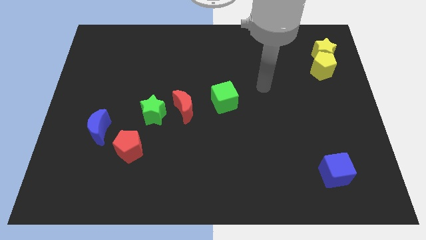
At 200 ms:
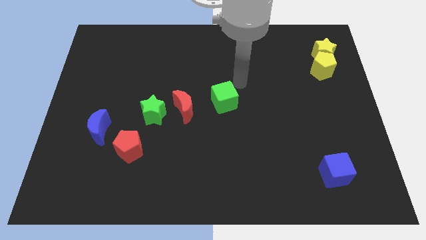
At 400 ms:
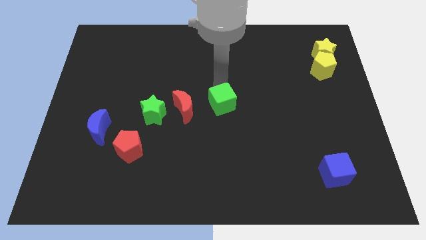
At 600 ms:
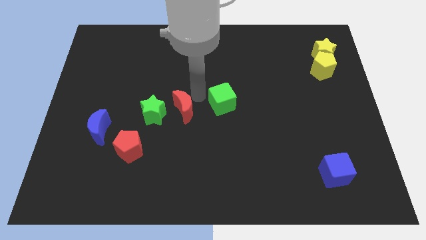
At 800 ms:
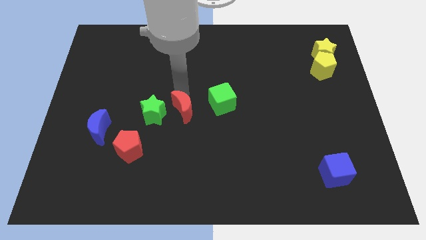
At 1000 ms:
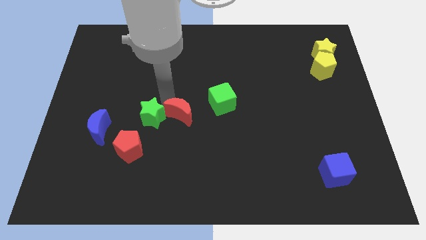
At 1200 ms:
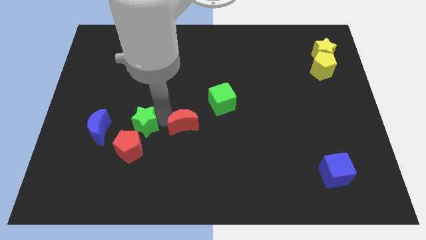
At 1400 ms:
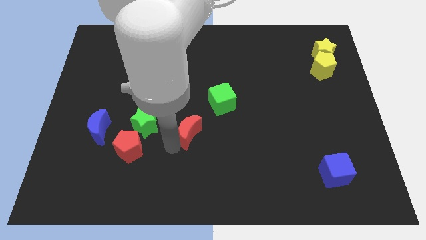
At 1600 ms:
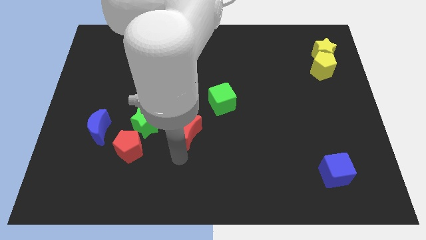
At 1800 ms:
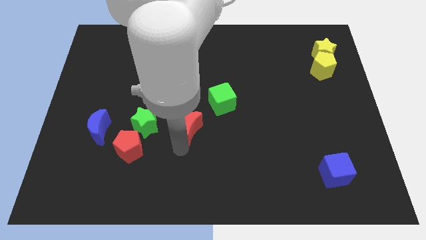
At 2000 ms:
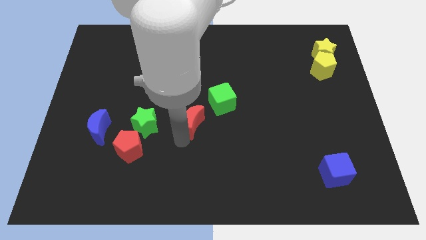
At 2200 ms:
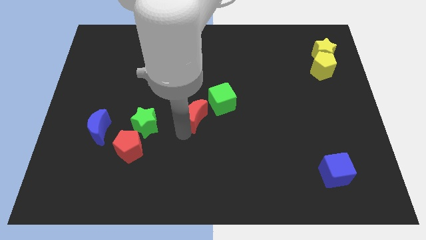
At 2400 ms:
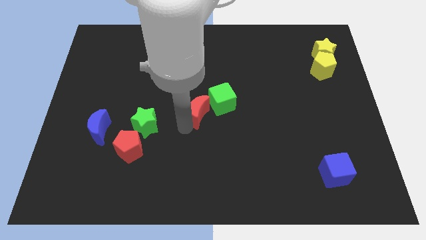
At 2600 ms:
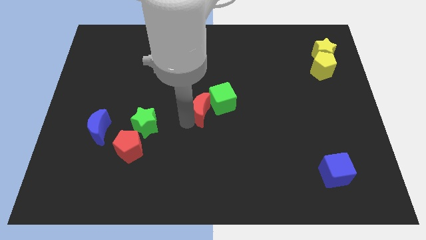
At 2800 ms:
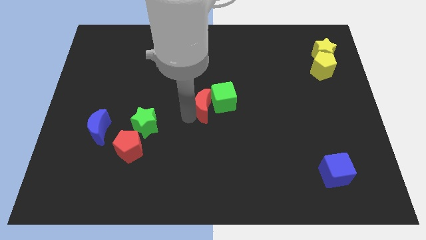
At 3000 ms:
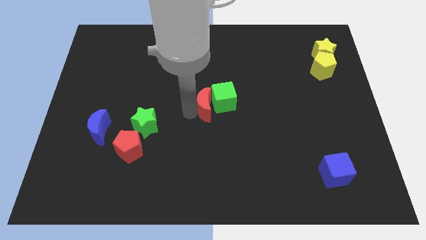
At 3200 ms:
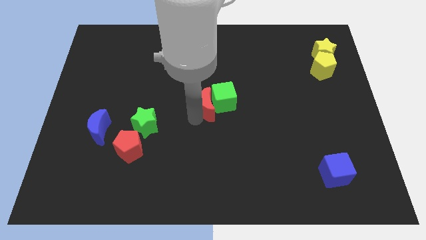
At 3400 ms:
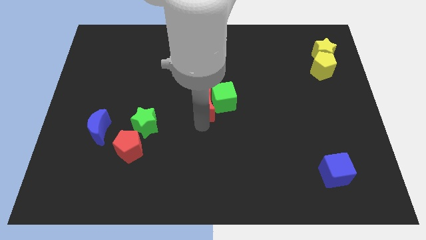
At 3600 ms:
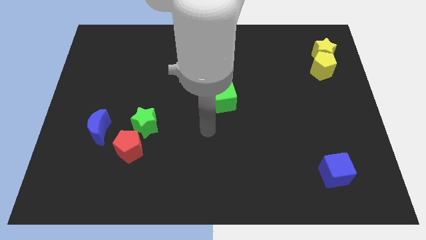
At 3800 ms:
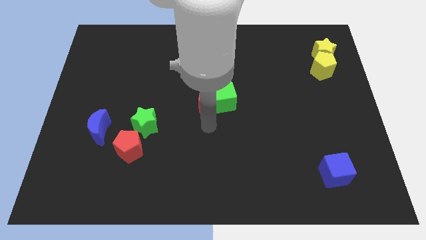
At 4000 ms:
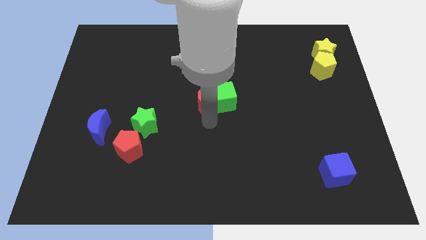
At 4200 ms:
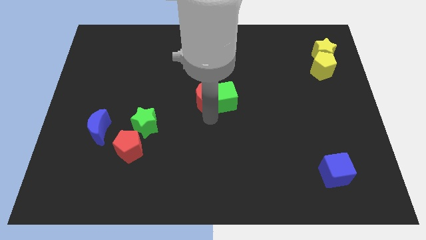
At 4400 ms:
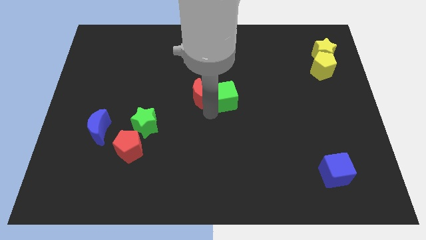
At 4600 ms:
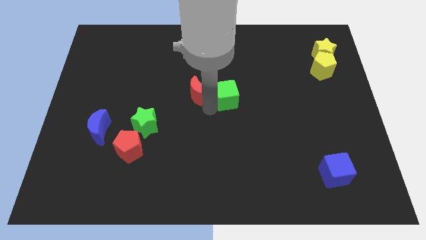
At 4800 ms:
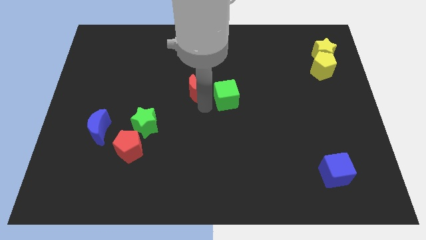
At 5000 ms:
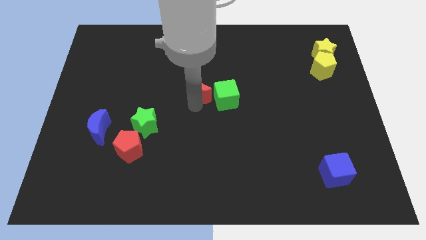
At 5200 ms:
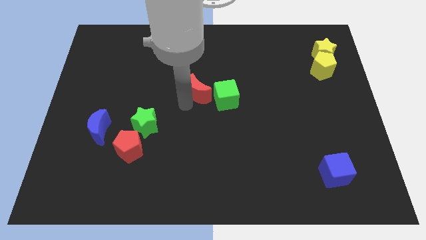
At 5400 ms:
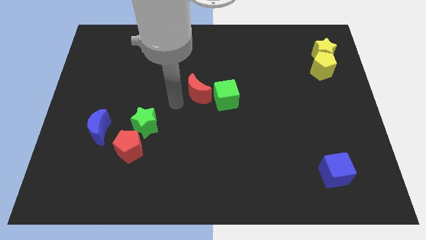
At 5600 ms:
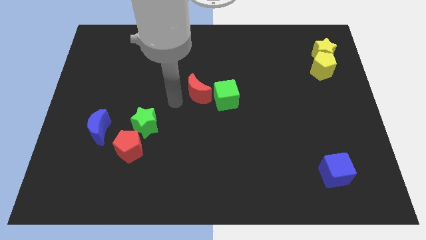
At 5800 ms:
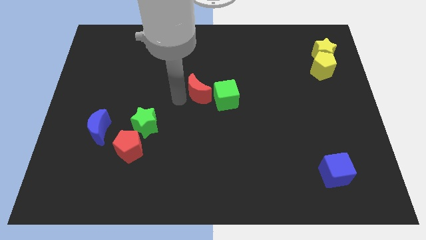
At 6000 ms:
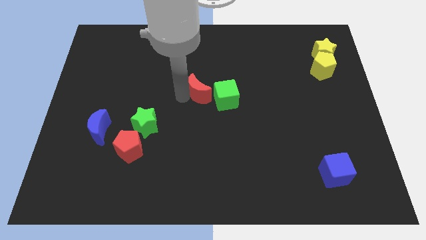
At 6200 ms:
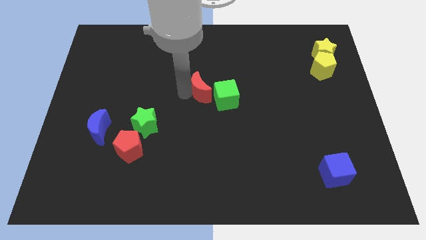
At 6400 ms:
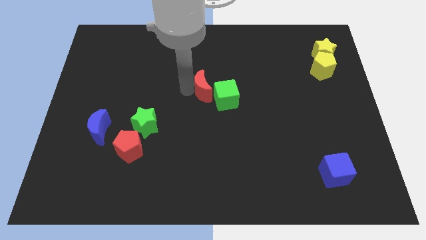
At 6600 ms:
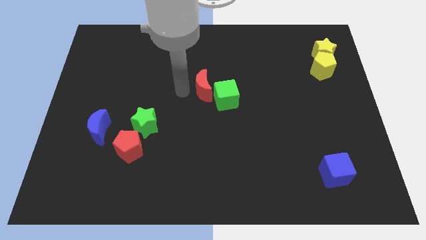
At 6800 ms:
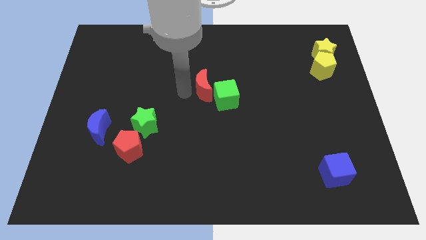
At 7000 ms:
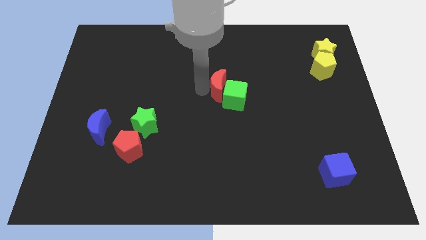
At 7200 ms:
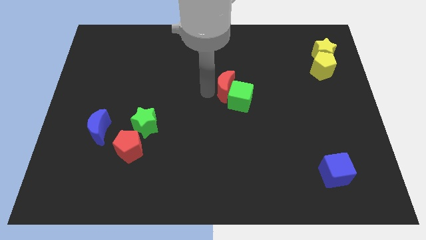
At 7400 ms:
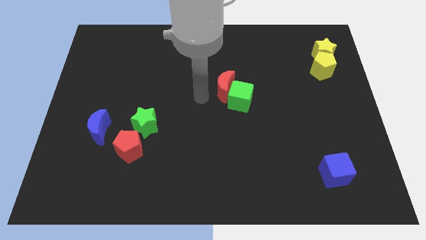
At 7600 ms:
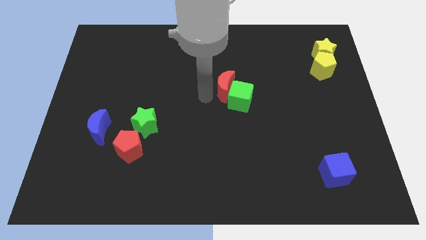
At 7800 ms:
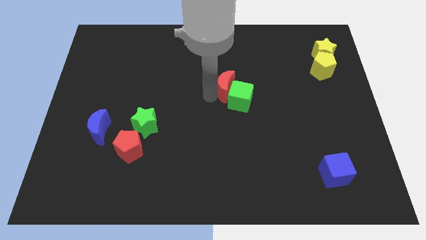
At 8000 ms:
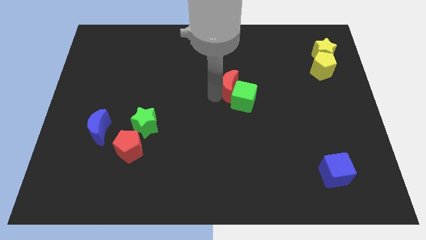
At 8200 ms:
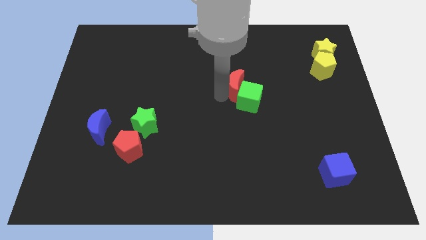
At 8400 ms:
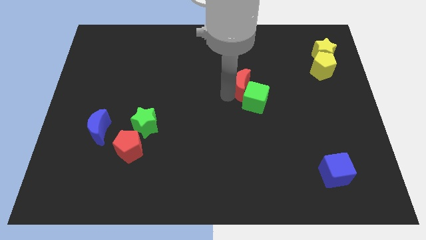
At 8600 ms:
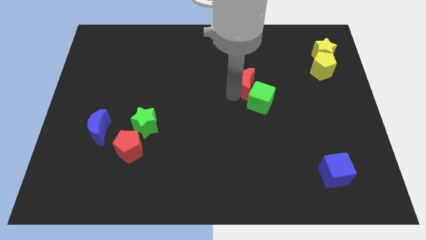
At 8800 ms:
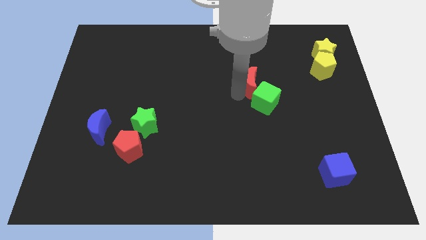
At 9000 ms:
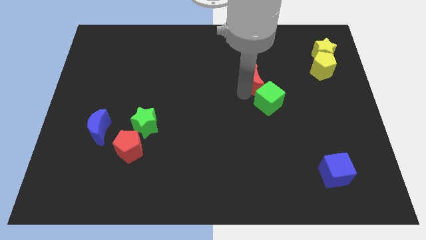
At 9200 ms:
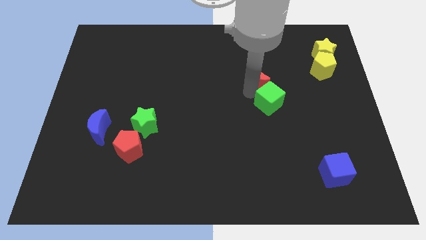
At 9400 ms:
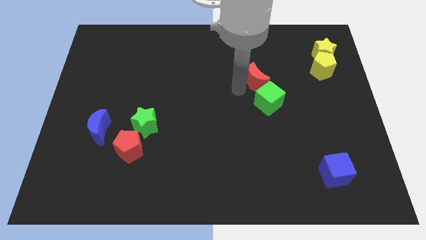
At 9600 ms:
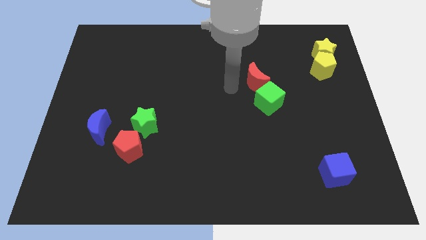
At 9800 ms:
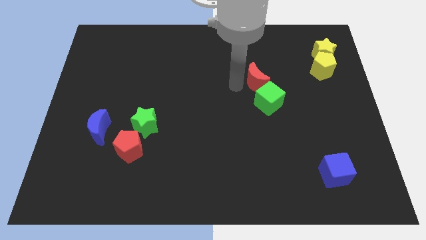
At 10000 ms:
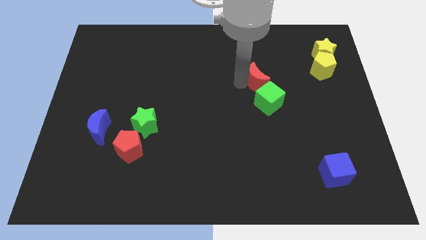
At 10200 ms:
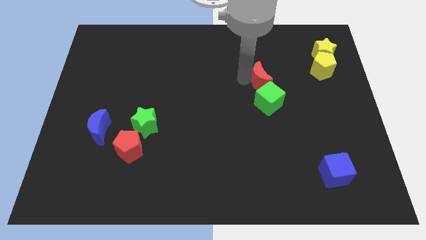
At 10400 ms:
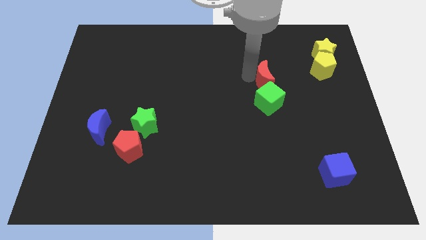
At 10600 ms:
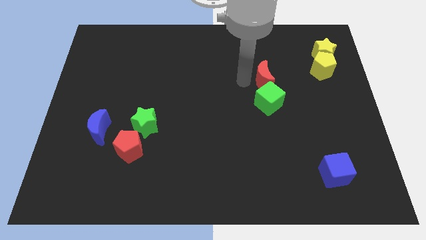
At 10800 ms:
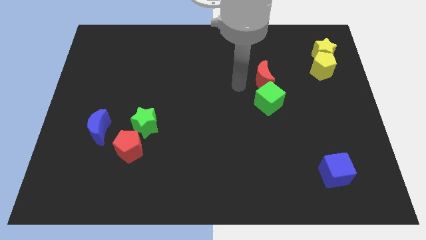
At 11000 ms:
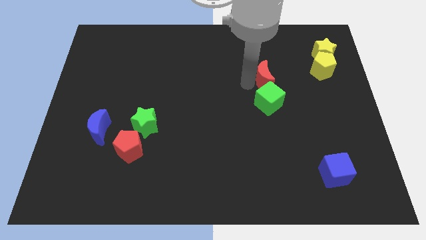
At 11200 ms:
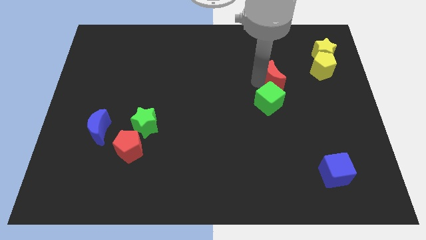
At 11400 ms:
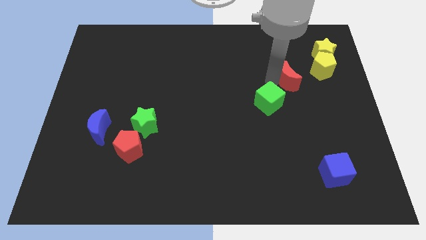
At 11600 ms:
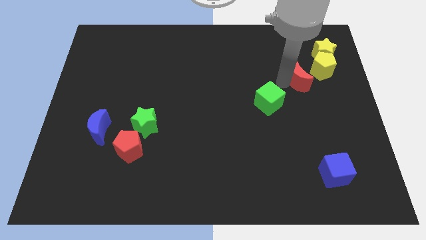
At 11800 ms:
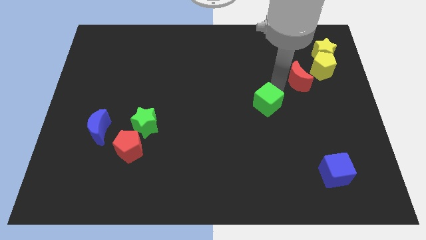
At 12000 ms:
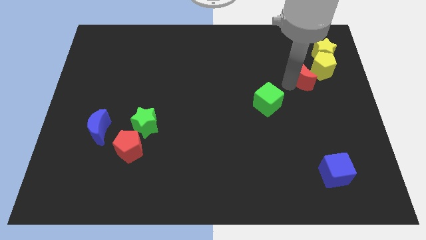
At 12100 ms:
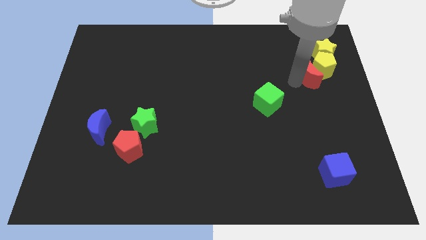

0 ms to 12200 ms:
slide the red moon towards the yellow pentagon

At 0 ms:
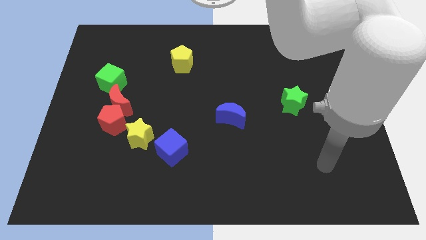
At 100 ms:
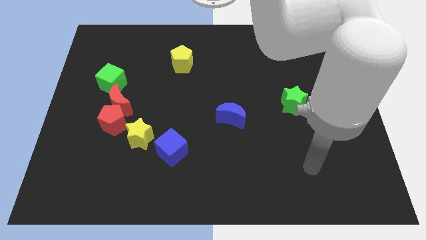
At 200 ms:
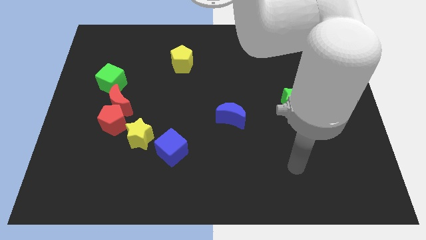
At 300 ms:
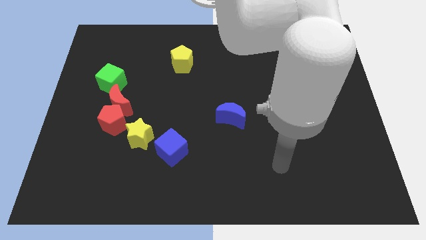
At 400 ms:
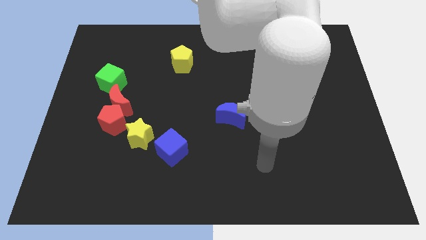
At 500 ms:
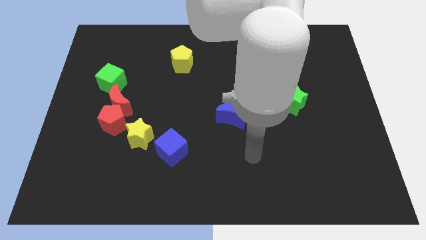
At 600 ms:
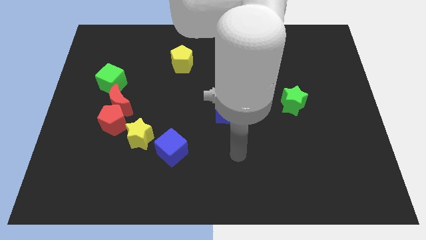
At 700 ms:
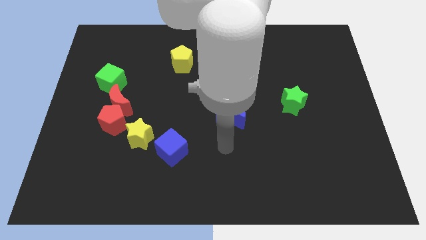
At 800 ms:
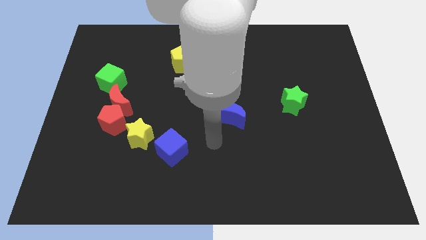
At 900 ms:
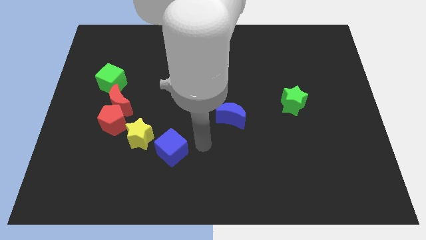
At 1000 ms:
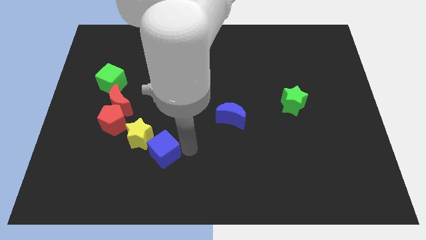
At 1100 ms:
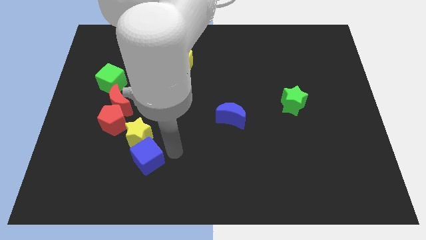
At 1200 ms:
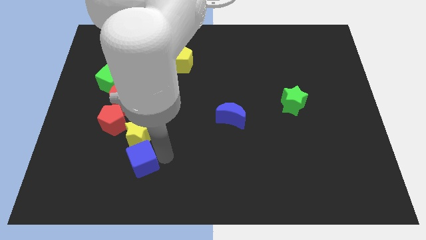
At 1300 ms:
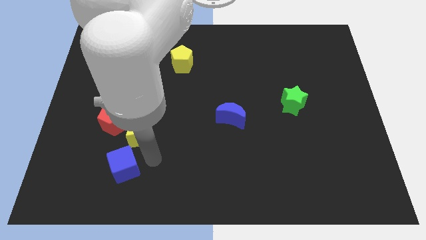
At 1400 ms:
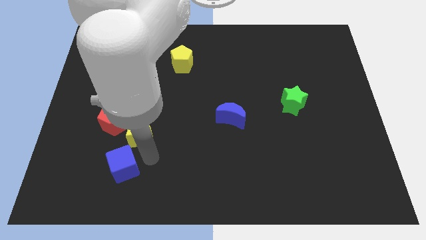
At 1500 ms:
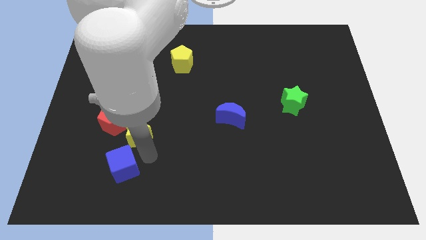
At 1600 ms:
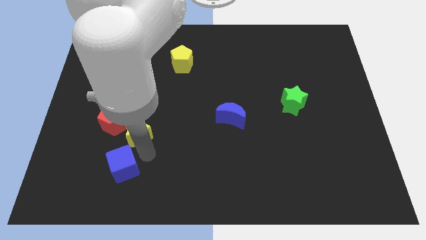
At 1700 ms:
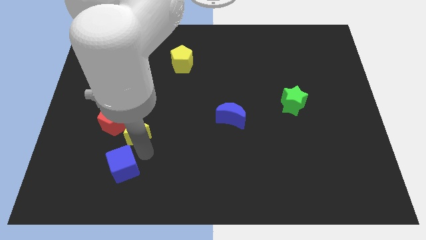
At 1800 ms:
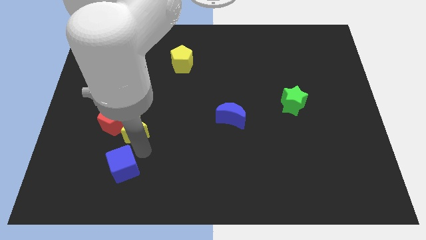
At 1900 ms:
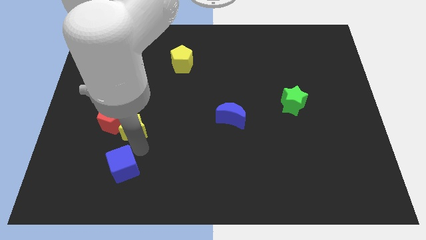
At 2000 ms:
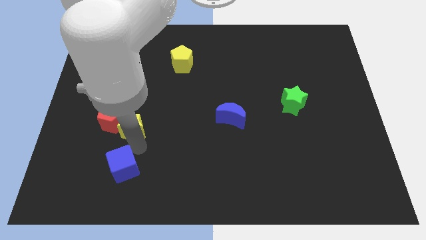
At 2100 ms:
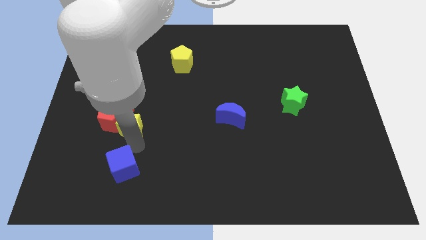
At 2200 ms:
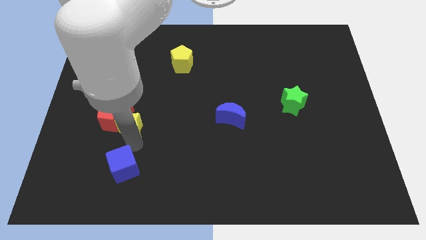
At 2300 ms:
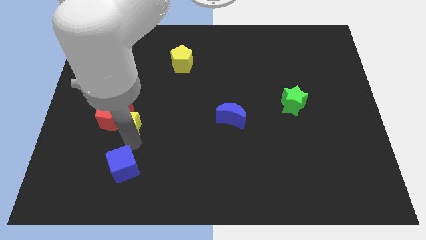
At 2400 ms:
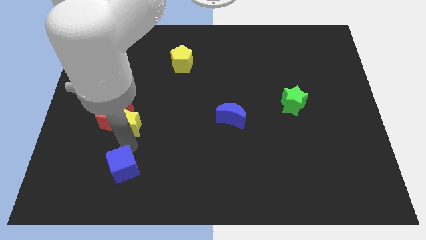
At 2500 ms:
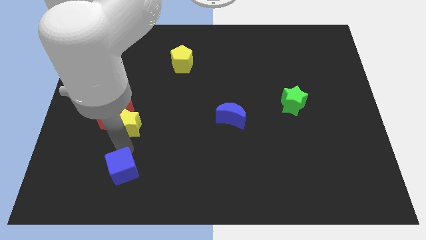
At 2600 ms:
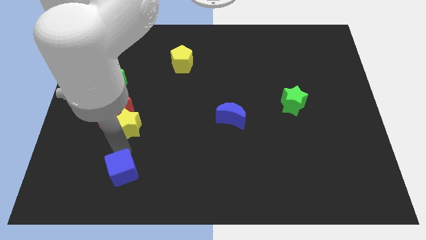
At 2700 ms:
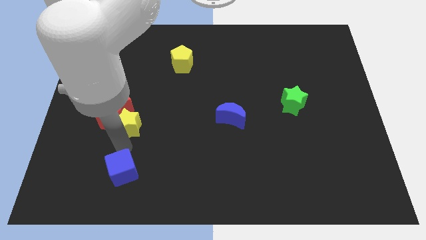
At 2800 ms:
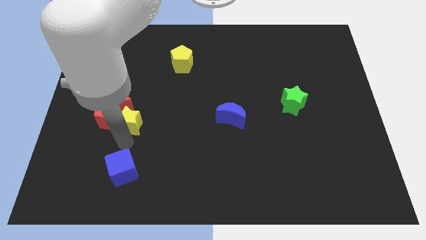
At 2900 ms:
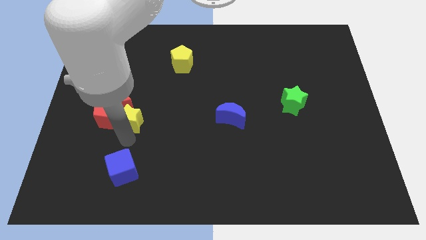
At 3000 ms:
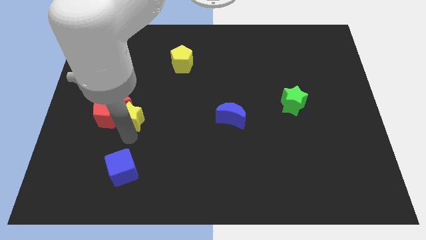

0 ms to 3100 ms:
push the yellow star next to the red moon
